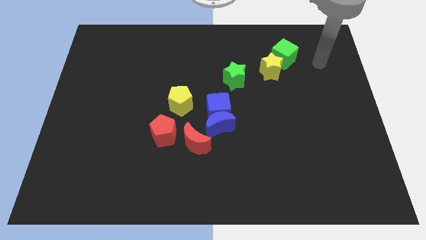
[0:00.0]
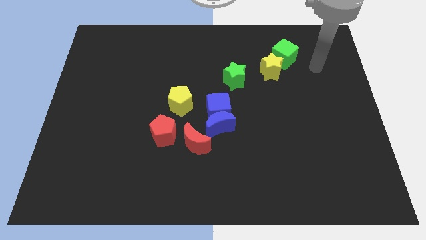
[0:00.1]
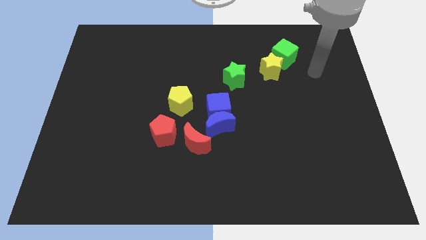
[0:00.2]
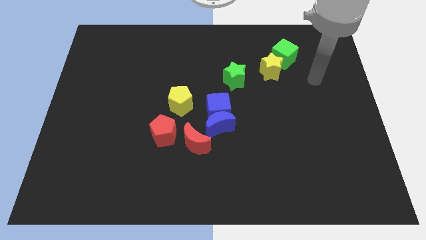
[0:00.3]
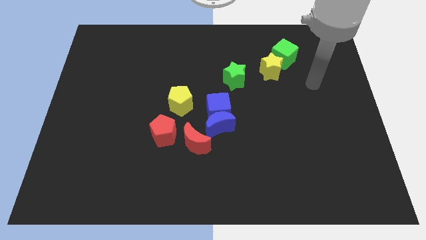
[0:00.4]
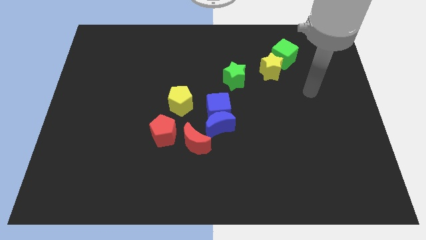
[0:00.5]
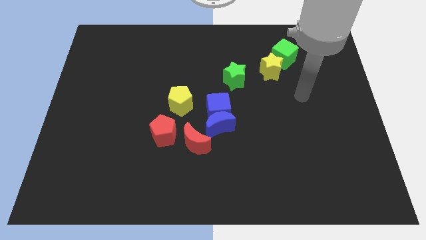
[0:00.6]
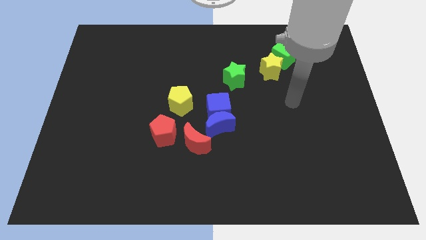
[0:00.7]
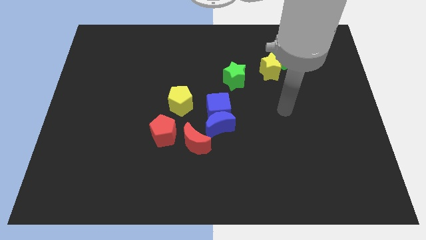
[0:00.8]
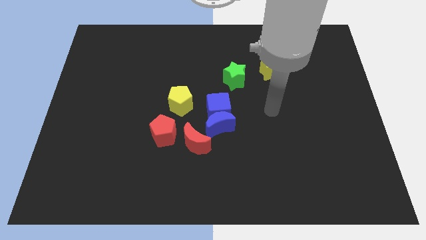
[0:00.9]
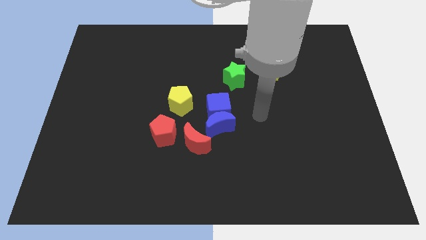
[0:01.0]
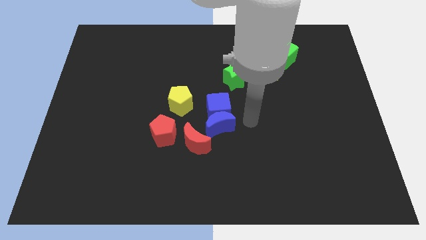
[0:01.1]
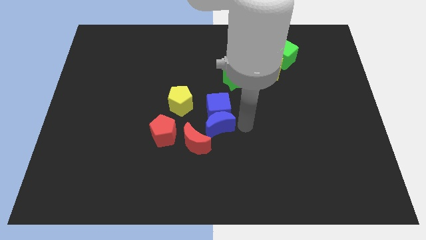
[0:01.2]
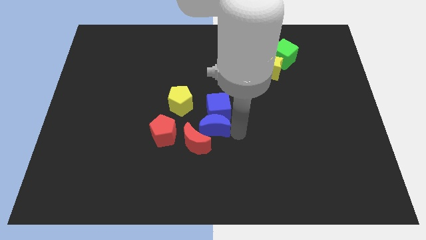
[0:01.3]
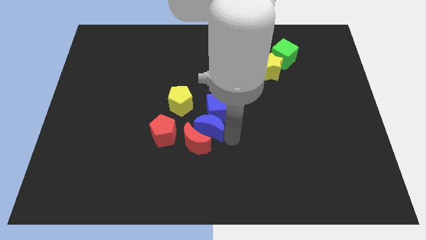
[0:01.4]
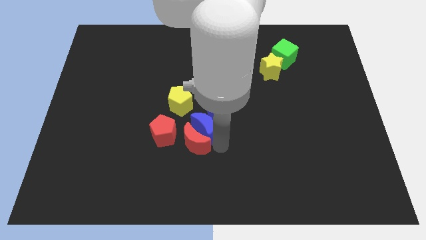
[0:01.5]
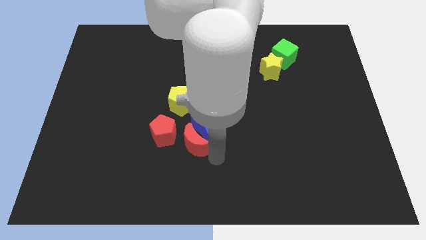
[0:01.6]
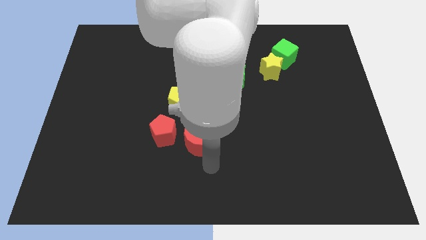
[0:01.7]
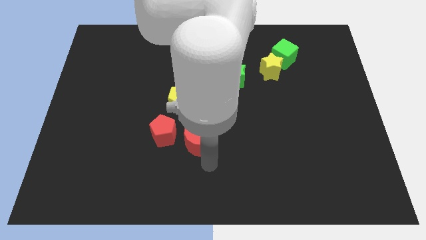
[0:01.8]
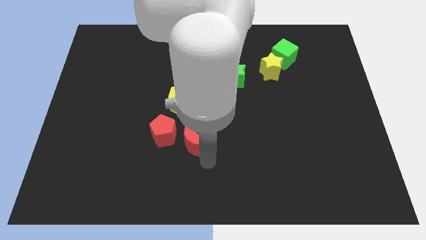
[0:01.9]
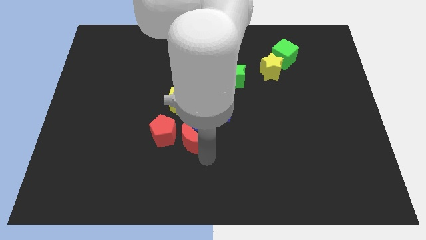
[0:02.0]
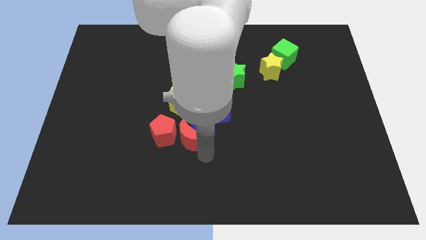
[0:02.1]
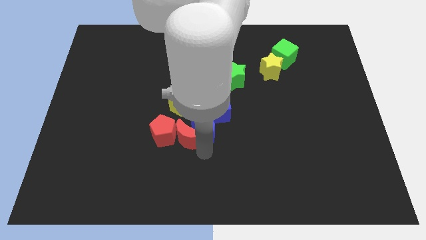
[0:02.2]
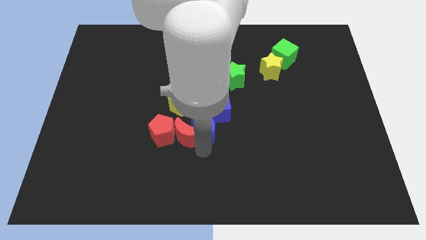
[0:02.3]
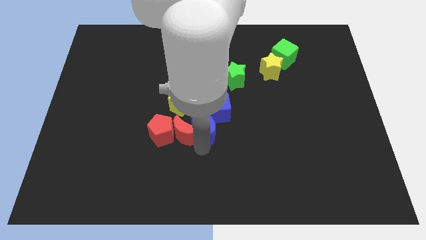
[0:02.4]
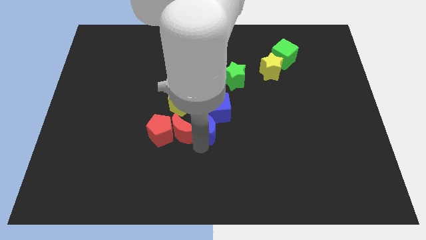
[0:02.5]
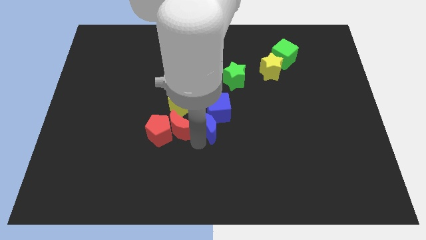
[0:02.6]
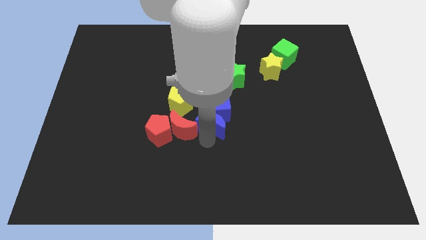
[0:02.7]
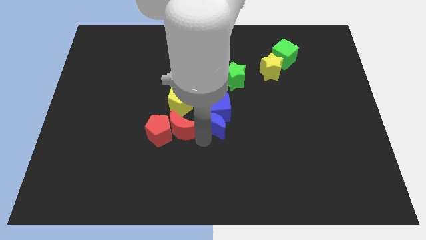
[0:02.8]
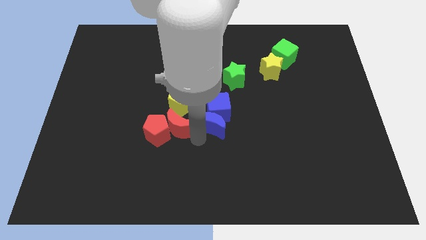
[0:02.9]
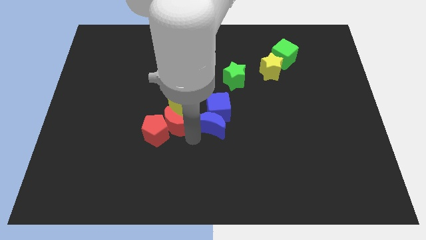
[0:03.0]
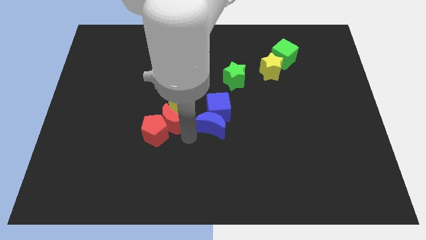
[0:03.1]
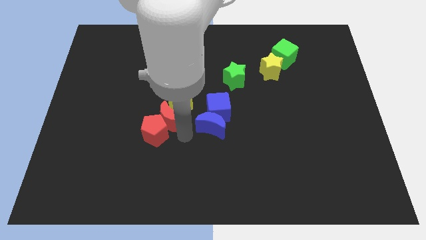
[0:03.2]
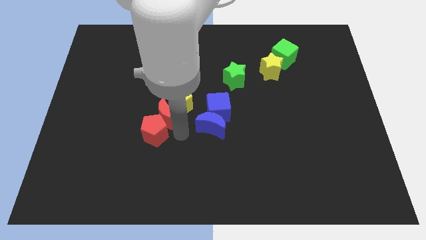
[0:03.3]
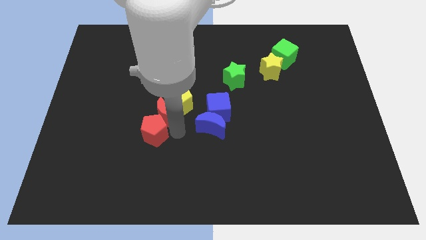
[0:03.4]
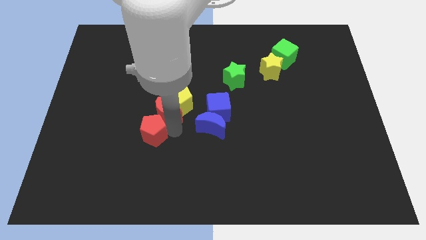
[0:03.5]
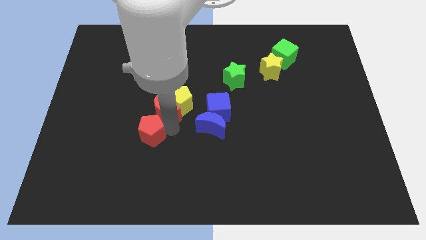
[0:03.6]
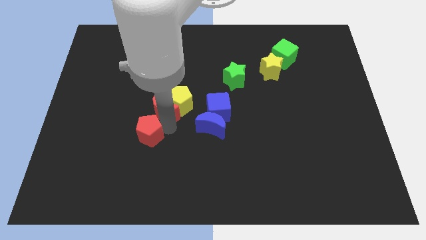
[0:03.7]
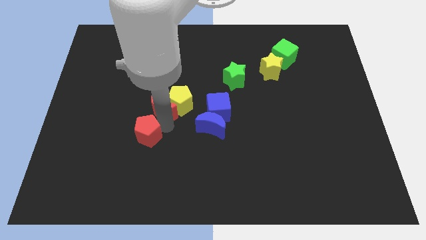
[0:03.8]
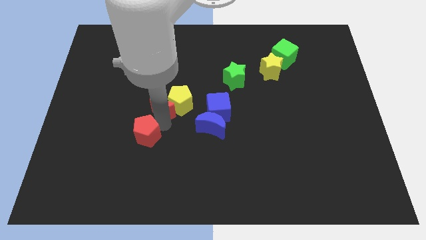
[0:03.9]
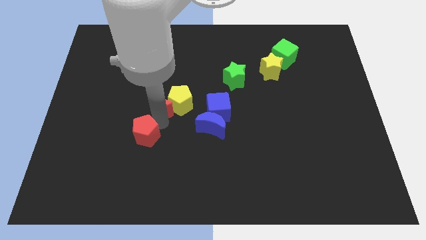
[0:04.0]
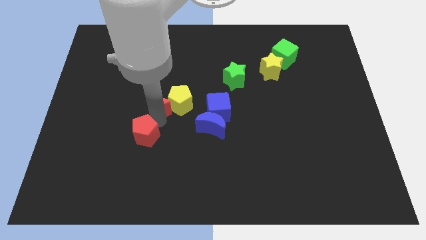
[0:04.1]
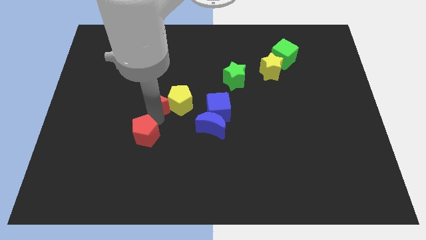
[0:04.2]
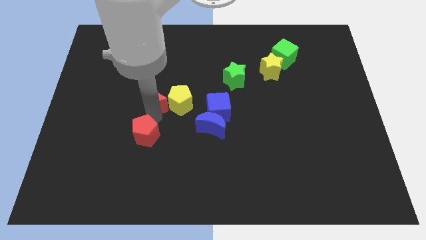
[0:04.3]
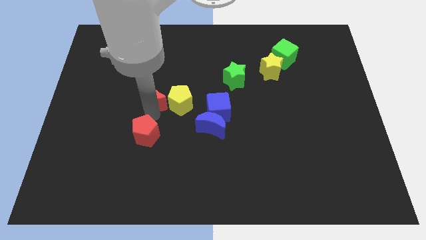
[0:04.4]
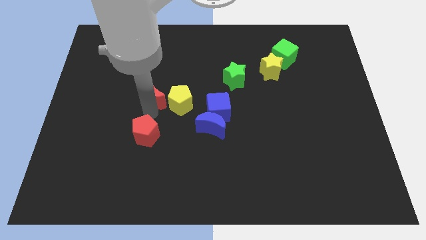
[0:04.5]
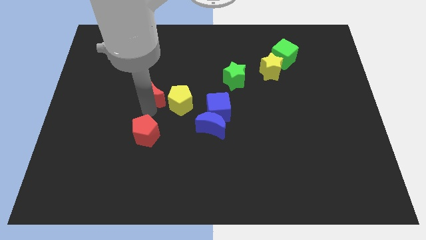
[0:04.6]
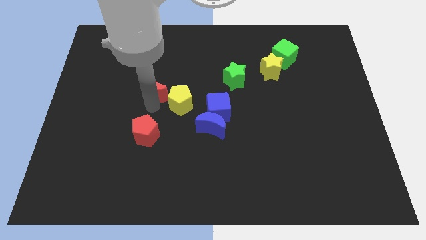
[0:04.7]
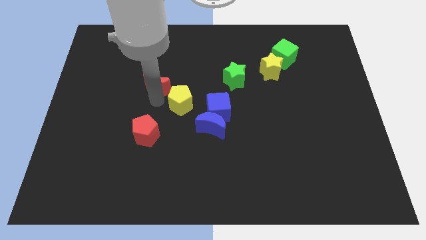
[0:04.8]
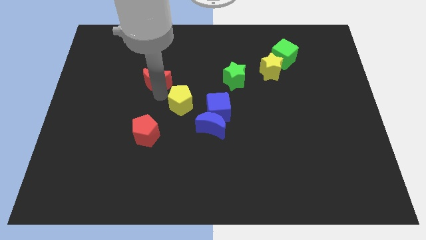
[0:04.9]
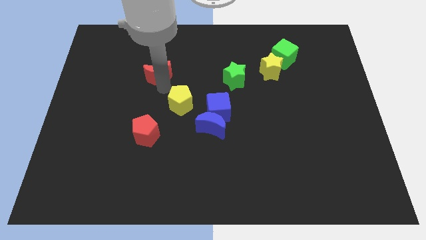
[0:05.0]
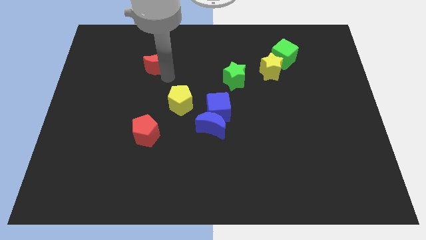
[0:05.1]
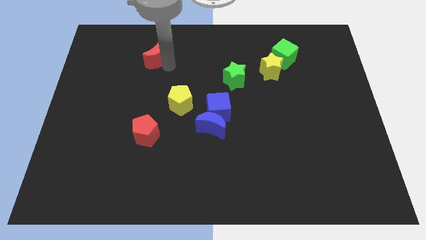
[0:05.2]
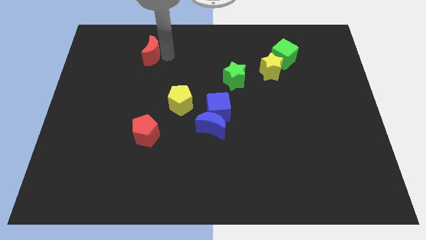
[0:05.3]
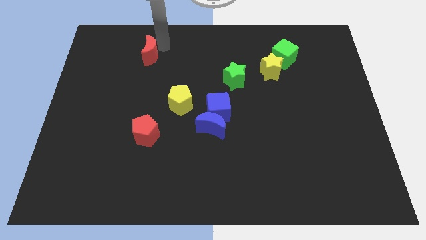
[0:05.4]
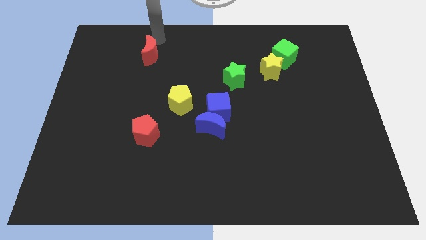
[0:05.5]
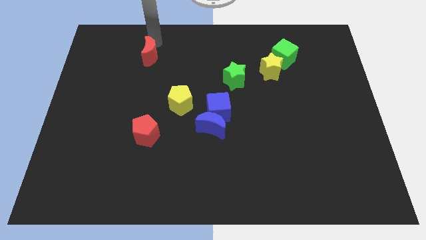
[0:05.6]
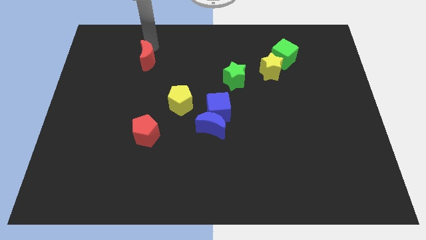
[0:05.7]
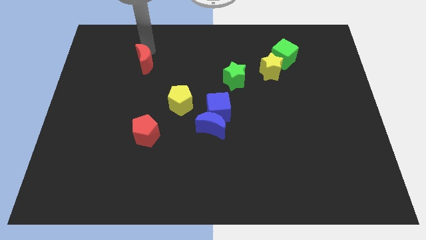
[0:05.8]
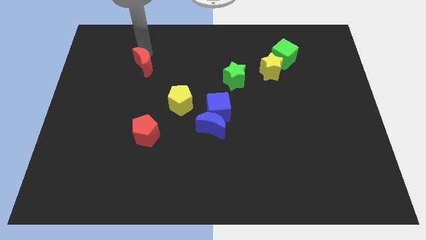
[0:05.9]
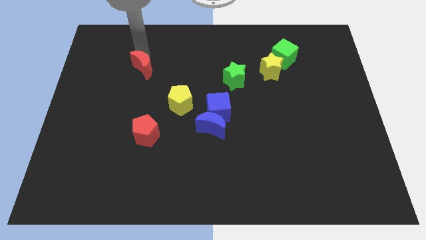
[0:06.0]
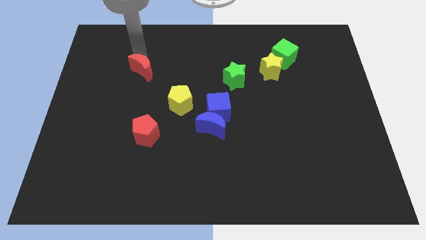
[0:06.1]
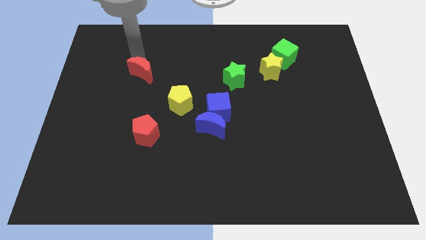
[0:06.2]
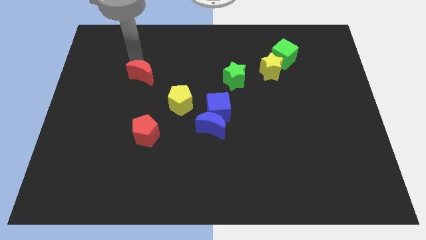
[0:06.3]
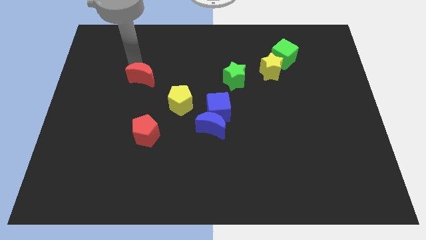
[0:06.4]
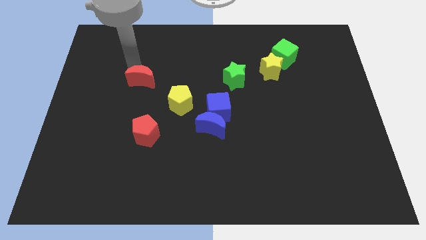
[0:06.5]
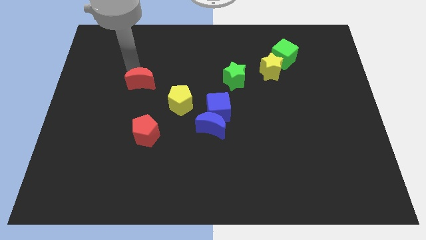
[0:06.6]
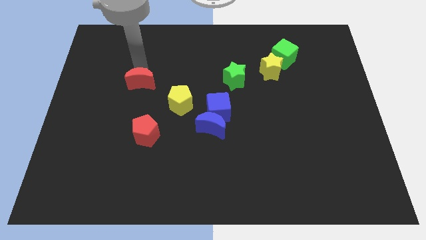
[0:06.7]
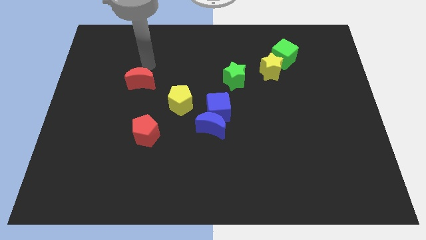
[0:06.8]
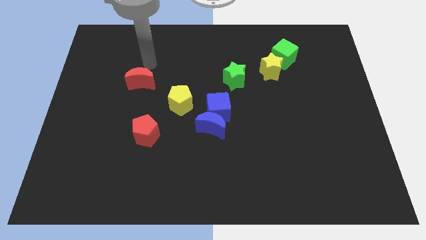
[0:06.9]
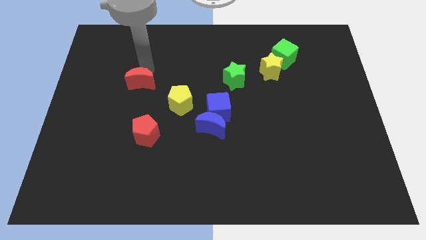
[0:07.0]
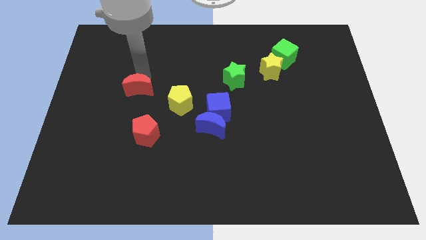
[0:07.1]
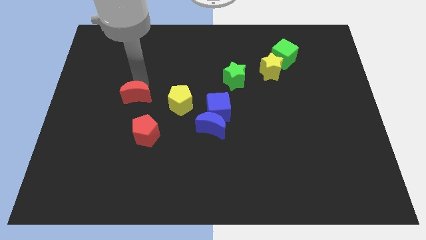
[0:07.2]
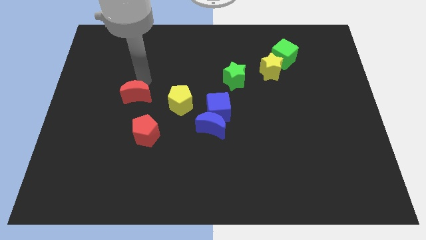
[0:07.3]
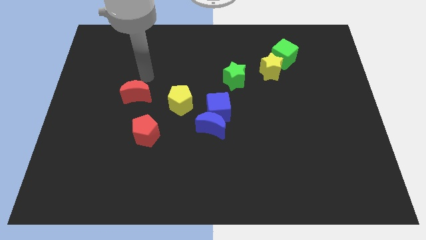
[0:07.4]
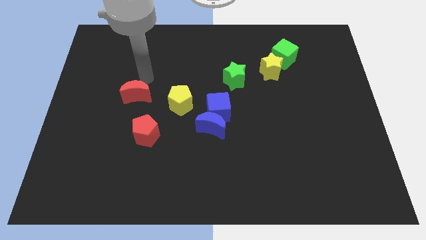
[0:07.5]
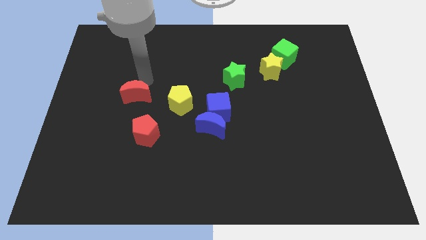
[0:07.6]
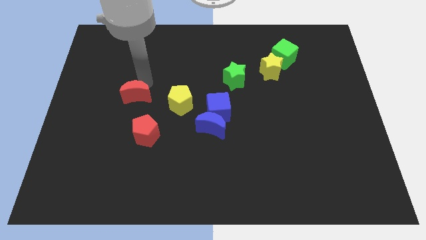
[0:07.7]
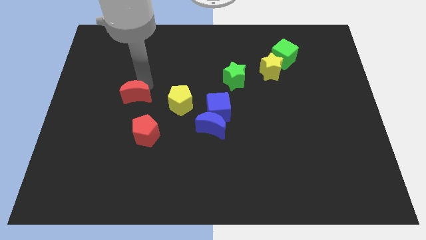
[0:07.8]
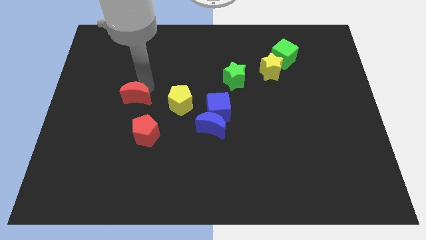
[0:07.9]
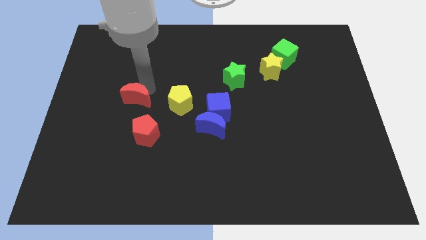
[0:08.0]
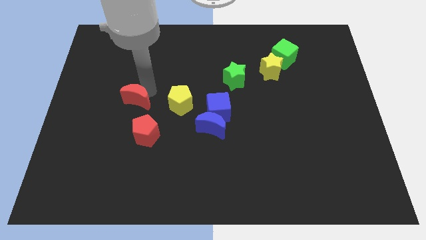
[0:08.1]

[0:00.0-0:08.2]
put the red moon diagonally up and to the left of the red pentagon
